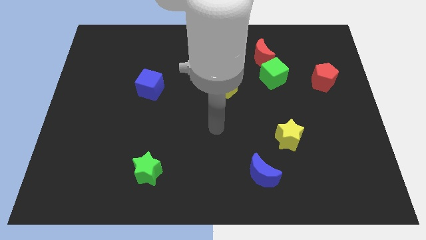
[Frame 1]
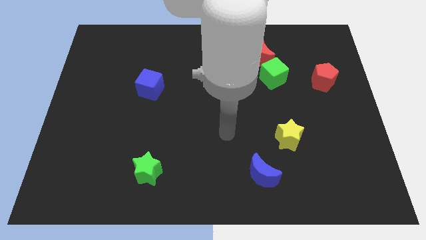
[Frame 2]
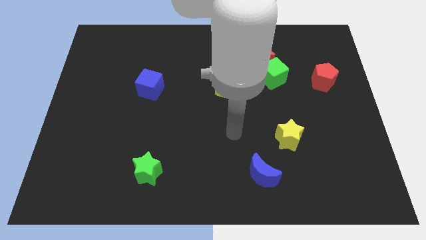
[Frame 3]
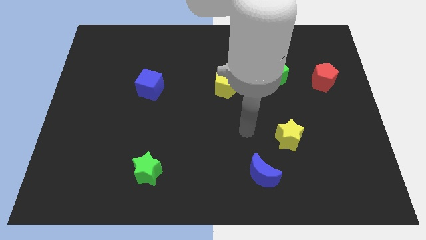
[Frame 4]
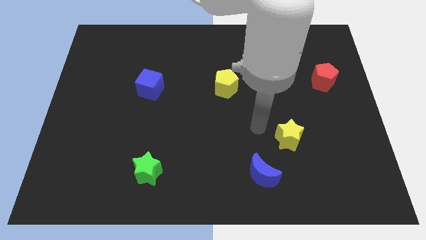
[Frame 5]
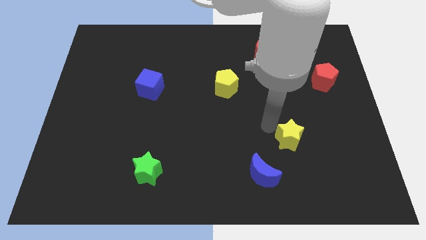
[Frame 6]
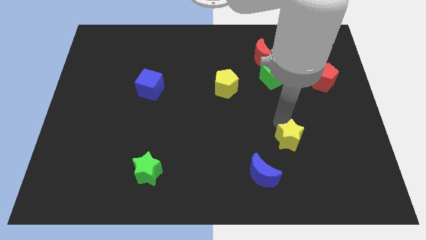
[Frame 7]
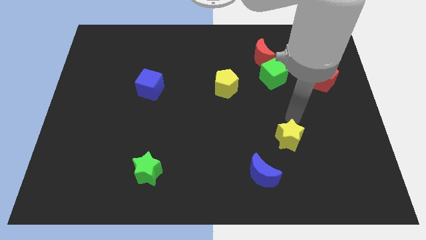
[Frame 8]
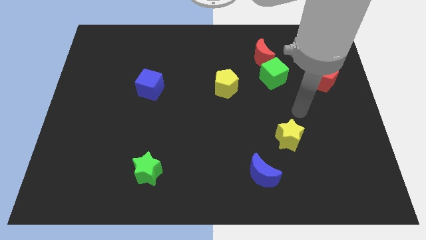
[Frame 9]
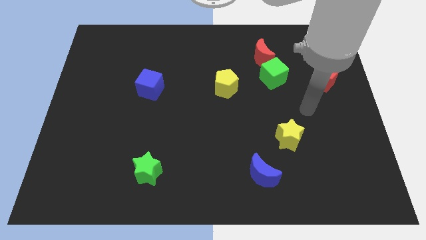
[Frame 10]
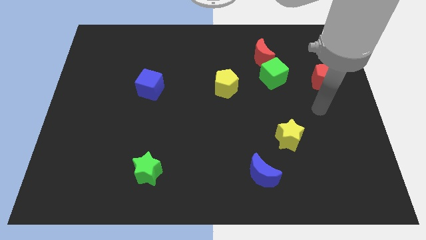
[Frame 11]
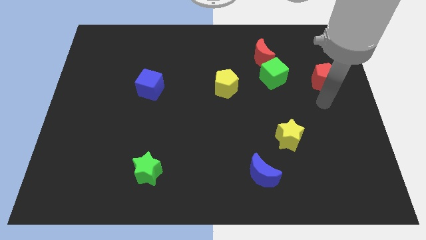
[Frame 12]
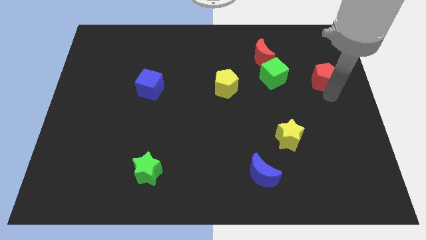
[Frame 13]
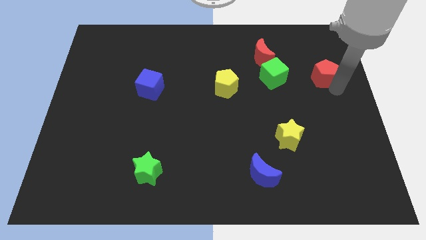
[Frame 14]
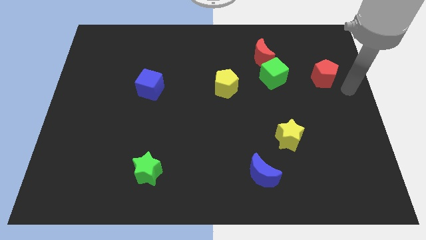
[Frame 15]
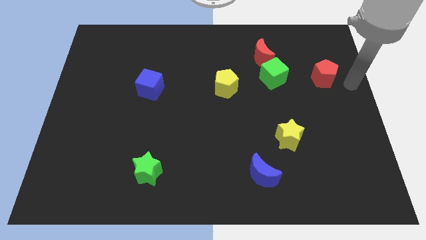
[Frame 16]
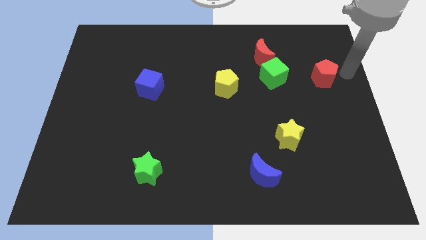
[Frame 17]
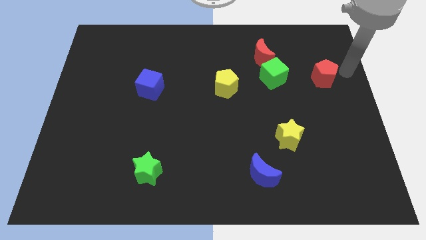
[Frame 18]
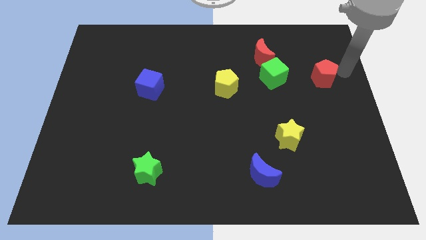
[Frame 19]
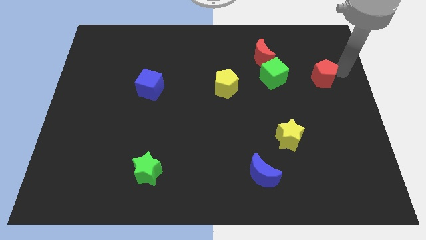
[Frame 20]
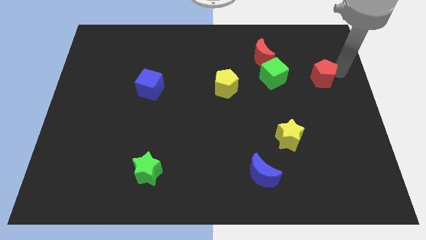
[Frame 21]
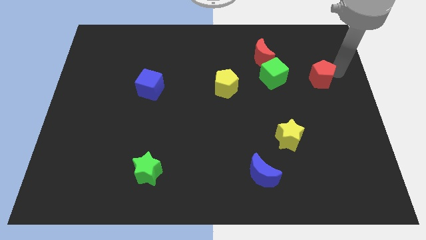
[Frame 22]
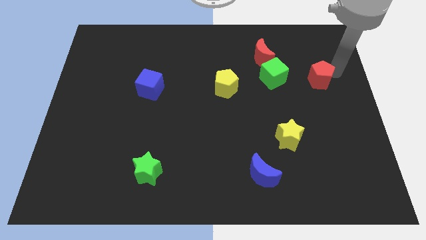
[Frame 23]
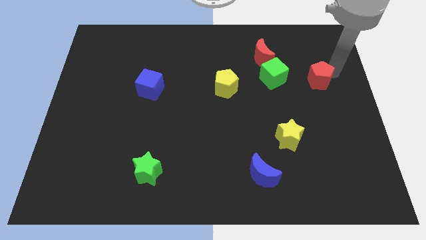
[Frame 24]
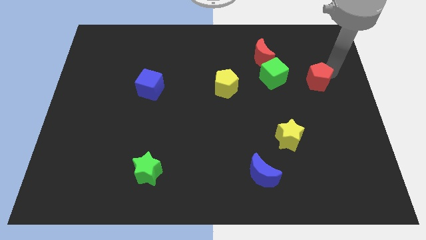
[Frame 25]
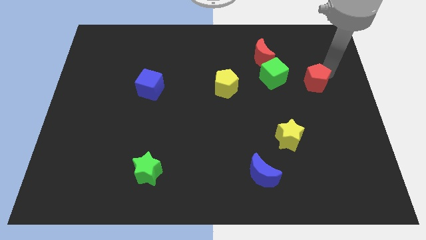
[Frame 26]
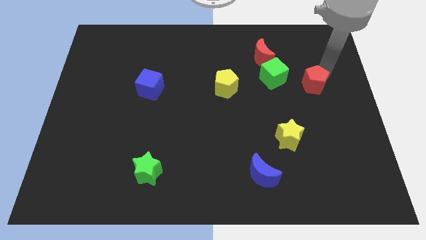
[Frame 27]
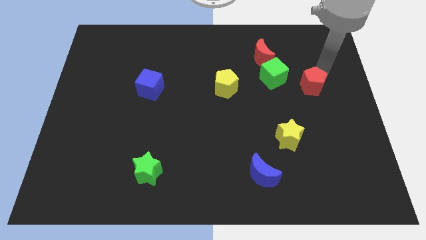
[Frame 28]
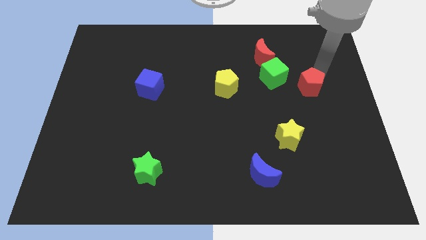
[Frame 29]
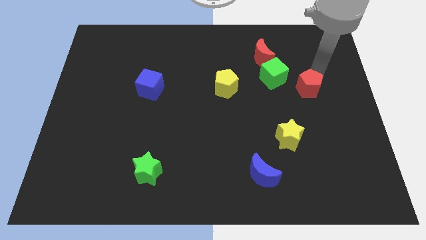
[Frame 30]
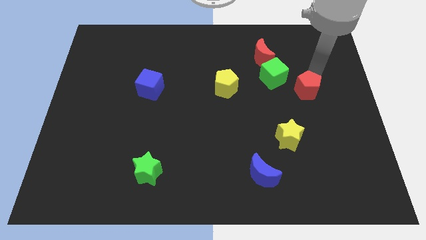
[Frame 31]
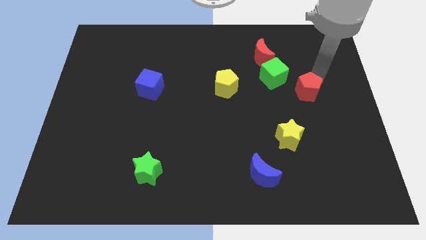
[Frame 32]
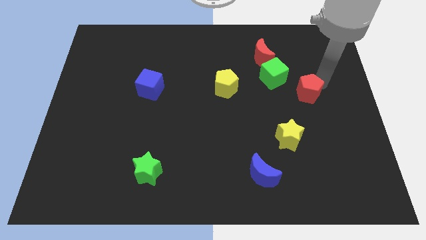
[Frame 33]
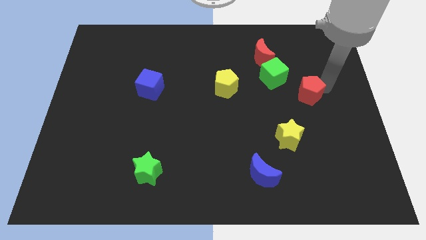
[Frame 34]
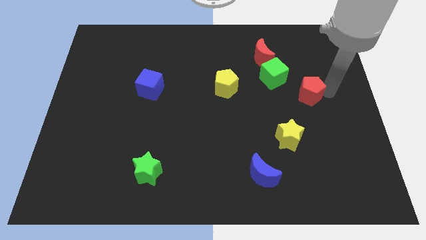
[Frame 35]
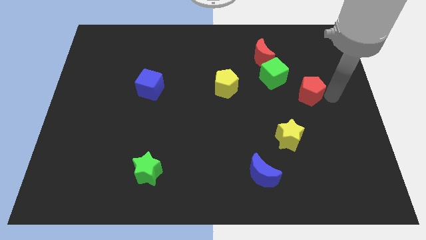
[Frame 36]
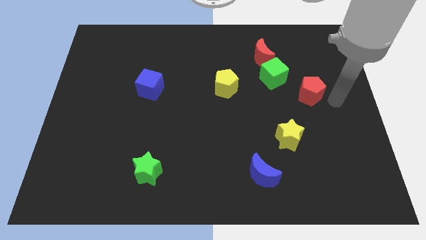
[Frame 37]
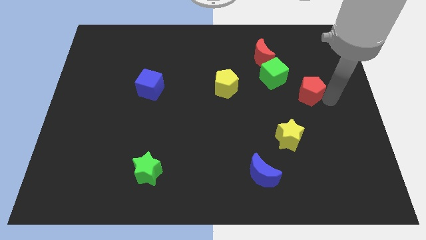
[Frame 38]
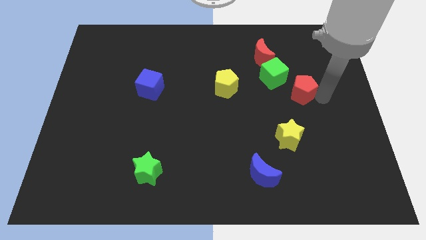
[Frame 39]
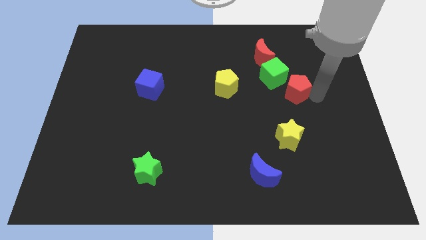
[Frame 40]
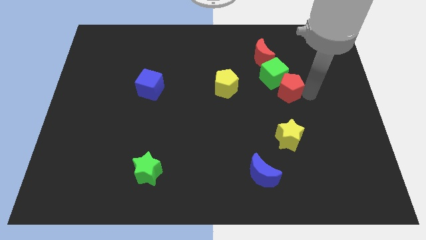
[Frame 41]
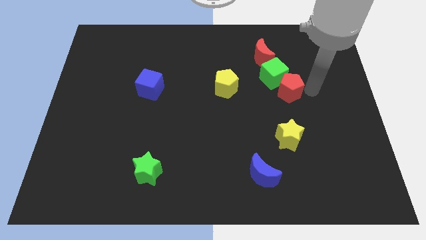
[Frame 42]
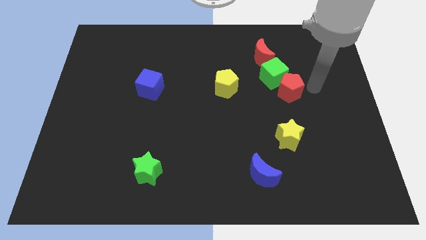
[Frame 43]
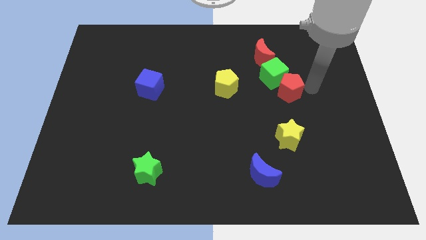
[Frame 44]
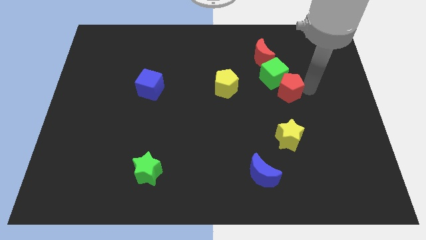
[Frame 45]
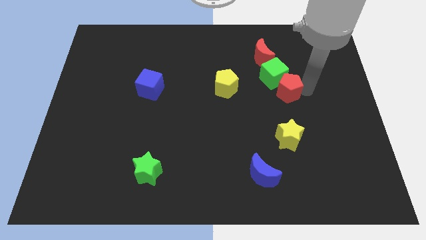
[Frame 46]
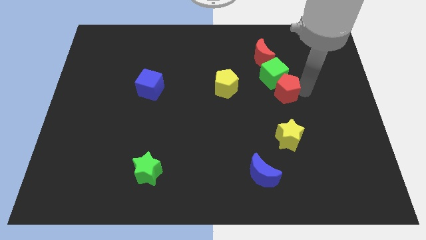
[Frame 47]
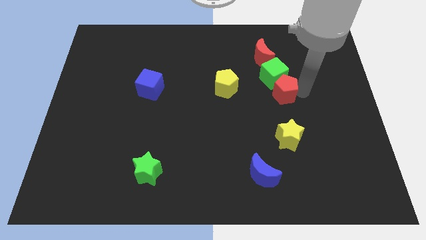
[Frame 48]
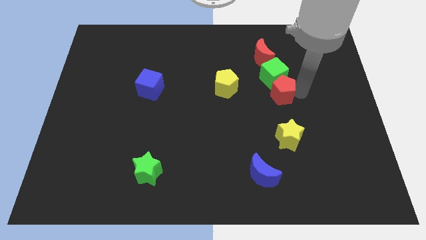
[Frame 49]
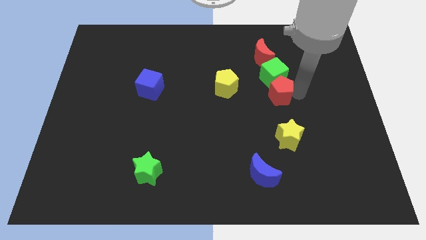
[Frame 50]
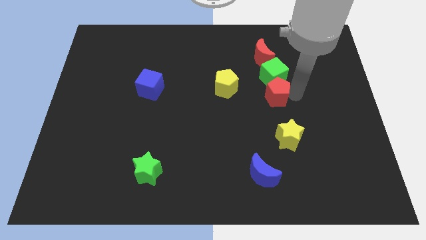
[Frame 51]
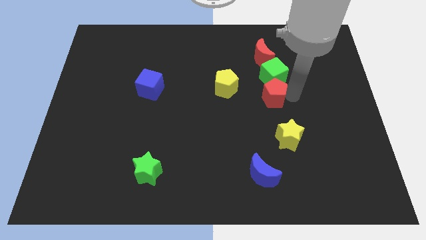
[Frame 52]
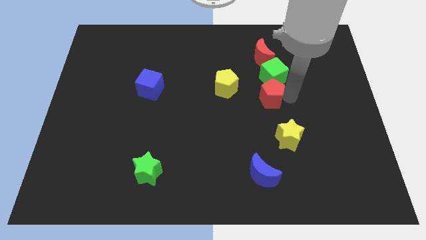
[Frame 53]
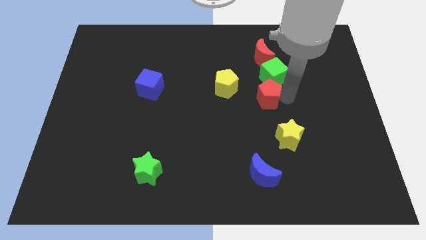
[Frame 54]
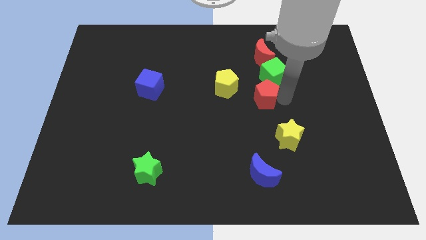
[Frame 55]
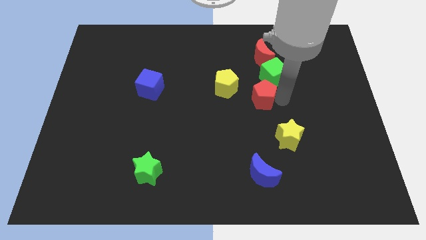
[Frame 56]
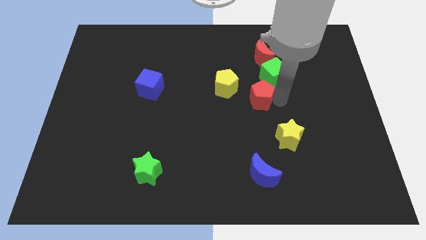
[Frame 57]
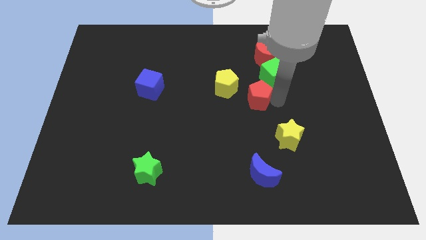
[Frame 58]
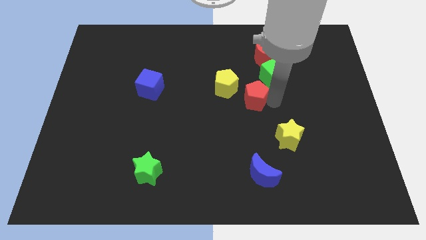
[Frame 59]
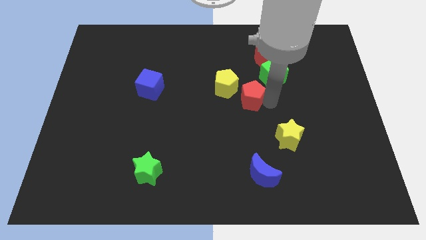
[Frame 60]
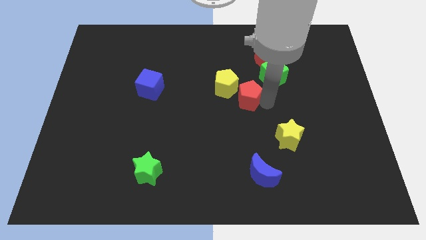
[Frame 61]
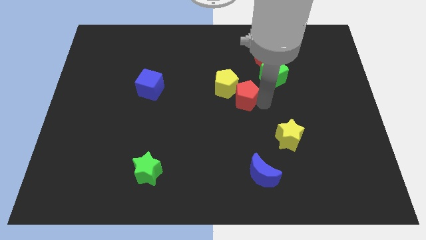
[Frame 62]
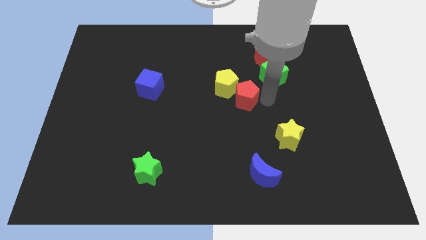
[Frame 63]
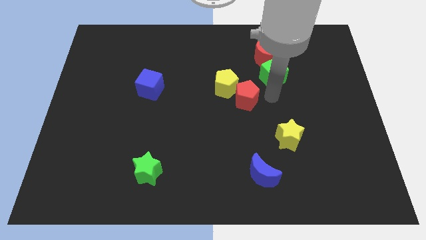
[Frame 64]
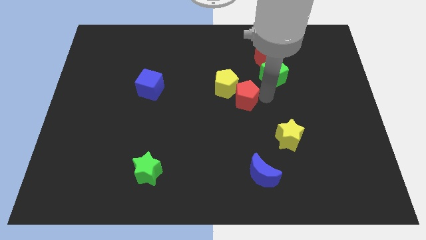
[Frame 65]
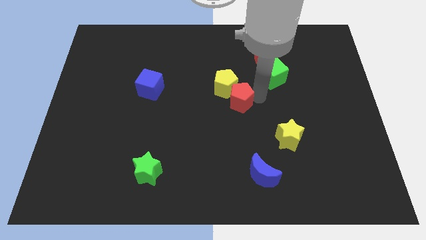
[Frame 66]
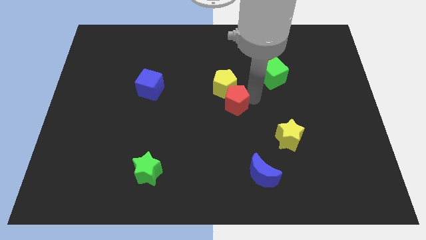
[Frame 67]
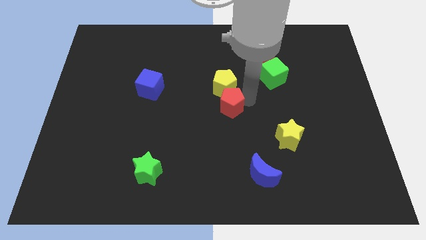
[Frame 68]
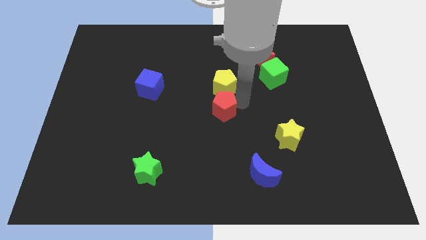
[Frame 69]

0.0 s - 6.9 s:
put the red pentagon to the bottom left of the yellow pentagon

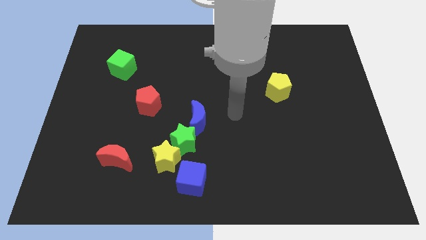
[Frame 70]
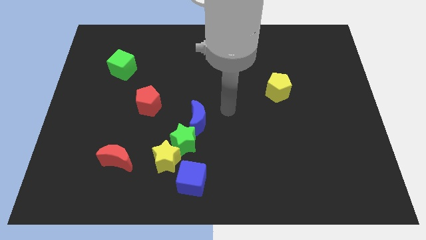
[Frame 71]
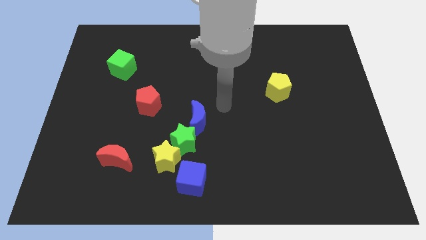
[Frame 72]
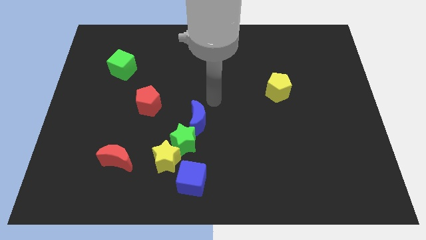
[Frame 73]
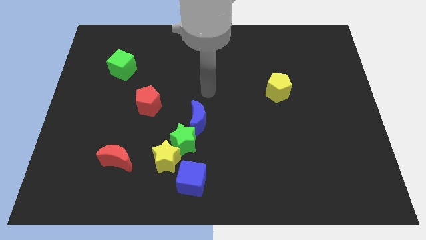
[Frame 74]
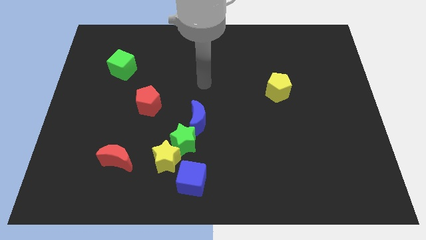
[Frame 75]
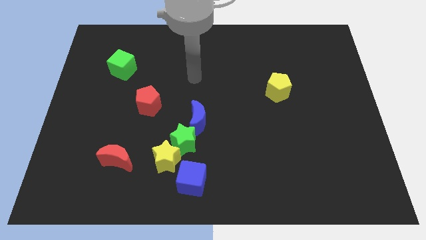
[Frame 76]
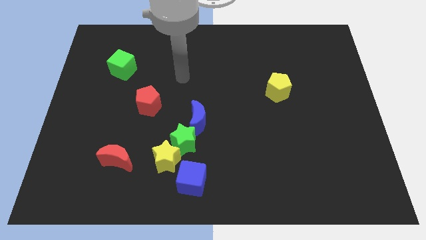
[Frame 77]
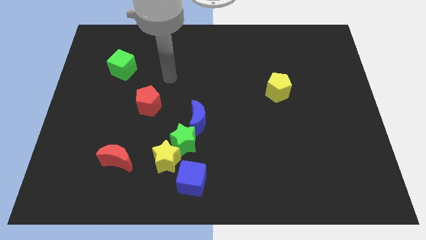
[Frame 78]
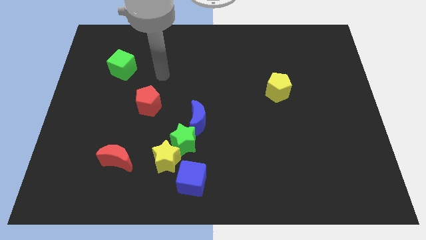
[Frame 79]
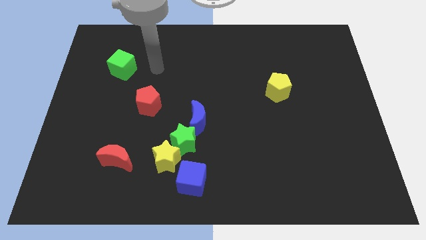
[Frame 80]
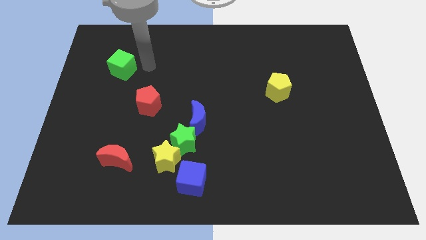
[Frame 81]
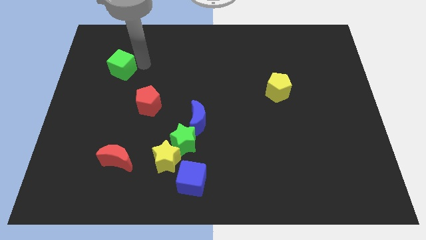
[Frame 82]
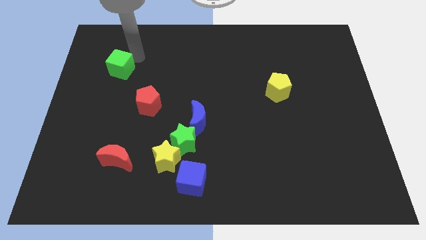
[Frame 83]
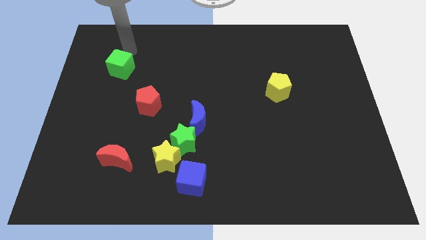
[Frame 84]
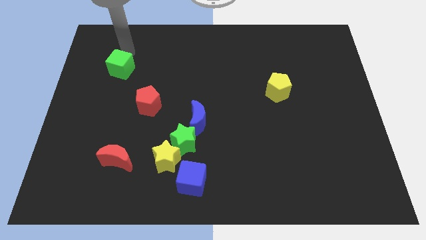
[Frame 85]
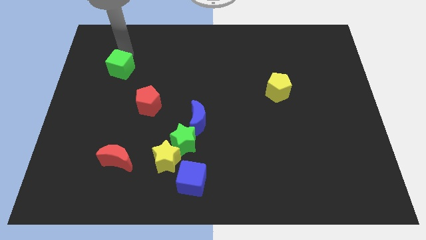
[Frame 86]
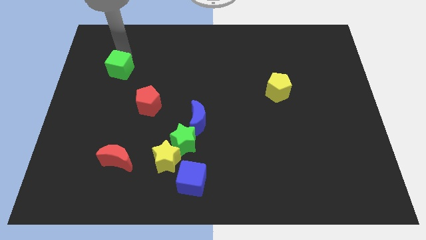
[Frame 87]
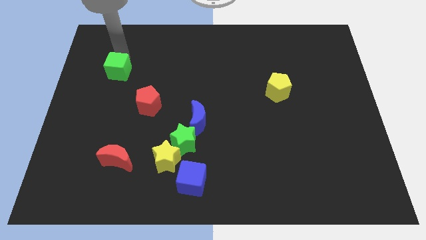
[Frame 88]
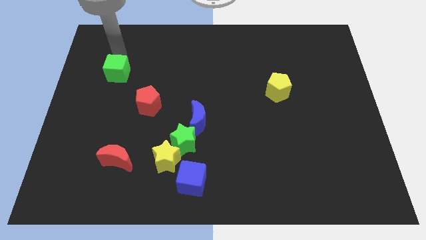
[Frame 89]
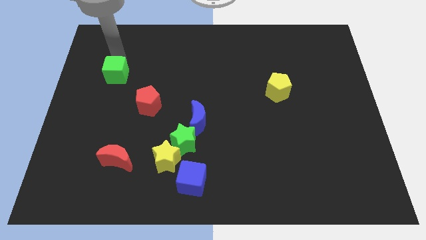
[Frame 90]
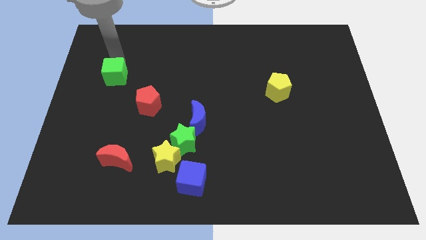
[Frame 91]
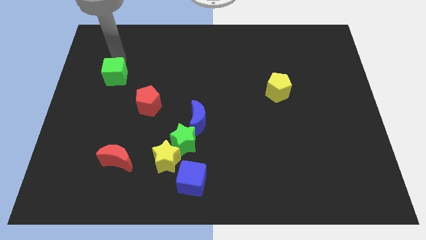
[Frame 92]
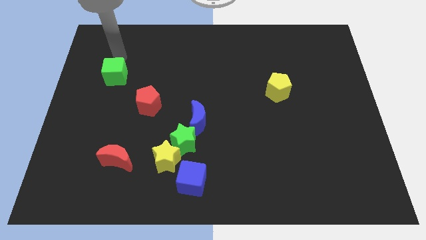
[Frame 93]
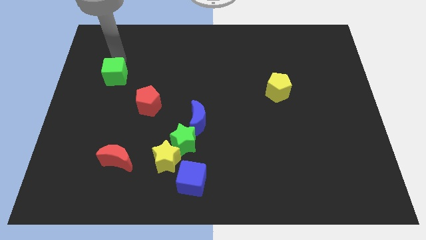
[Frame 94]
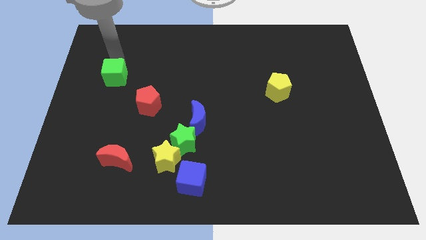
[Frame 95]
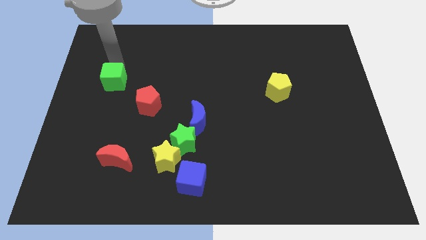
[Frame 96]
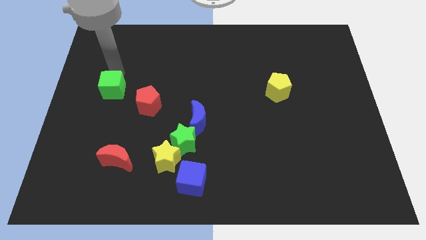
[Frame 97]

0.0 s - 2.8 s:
push the green cube to the left of the red pentagon
